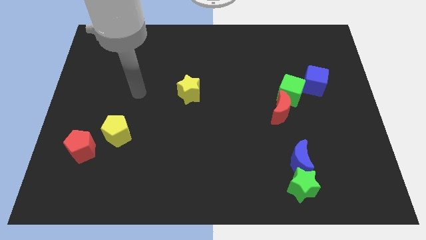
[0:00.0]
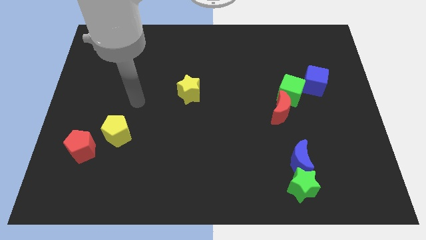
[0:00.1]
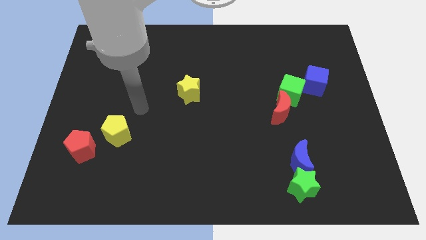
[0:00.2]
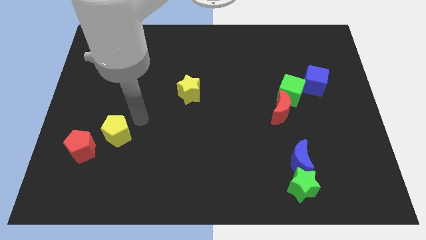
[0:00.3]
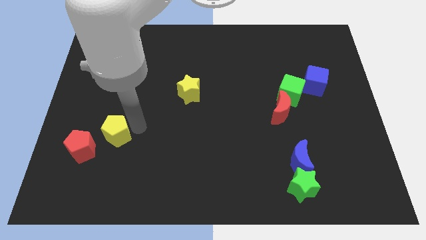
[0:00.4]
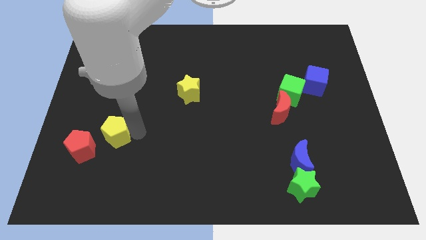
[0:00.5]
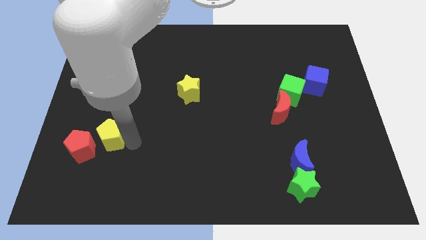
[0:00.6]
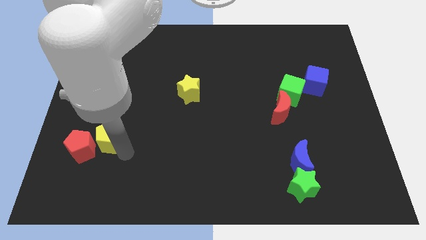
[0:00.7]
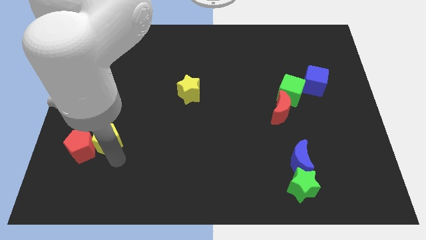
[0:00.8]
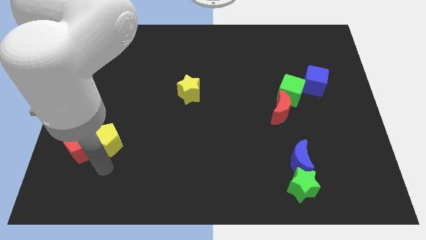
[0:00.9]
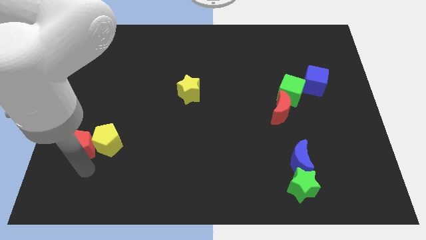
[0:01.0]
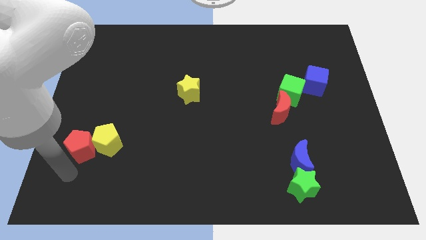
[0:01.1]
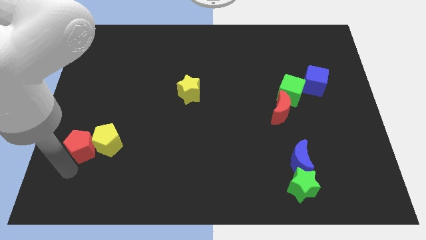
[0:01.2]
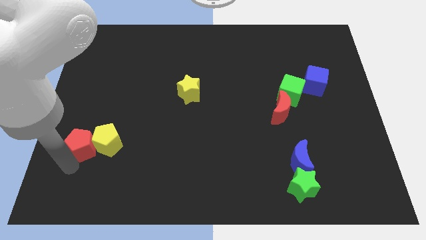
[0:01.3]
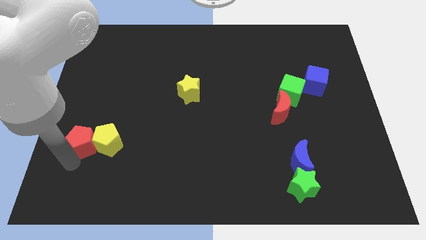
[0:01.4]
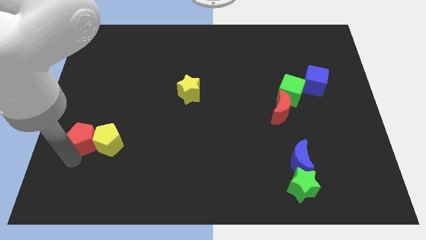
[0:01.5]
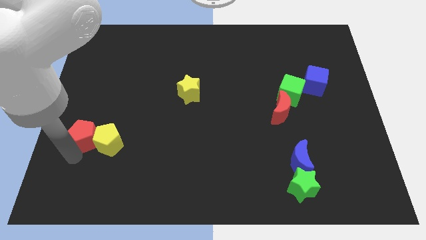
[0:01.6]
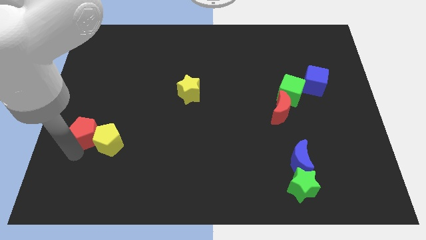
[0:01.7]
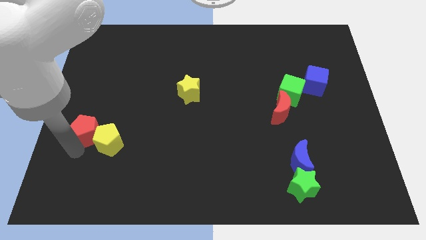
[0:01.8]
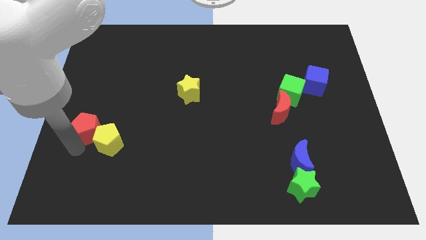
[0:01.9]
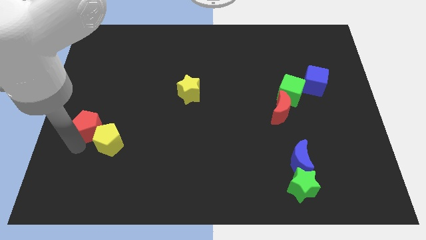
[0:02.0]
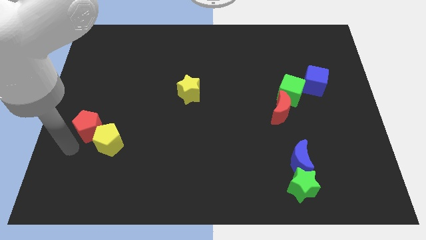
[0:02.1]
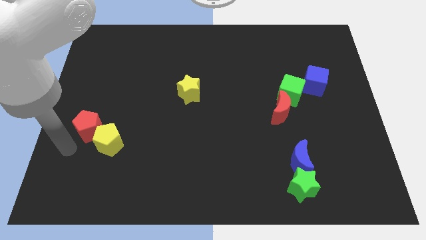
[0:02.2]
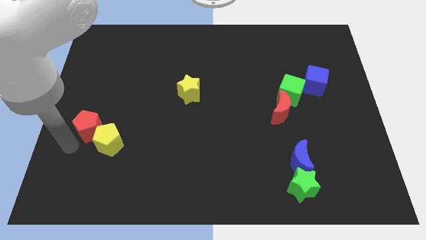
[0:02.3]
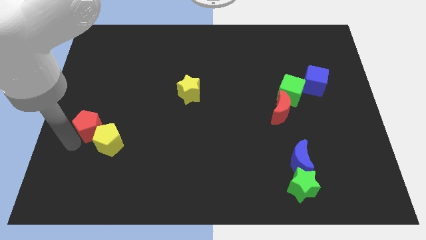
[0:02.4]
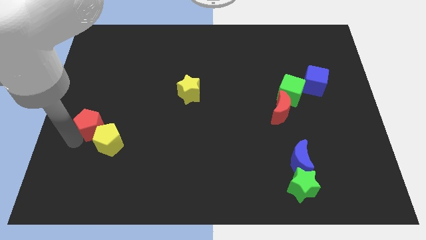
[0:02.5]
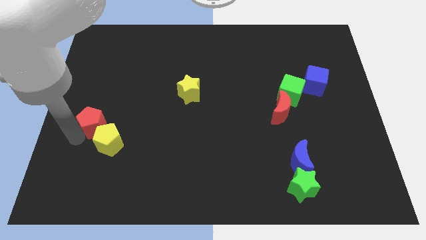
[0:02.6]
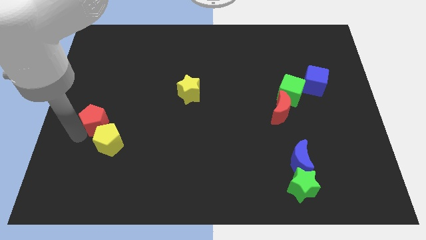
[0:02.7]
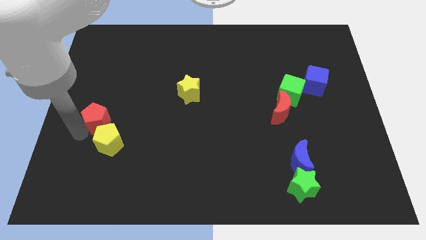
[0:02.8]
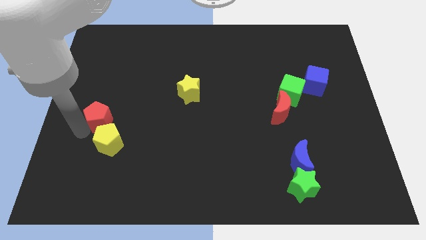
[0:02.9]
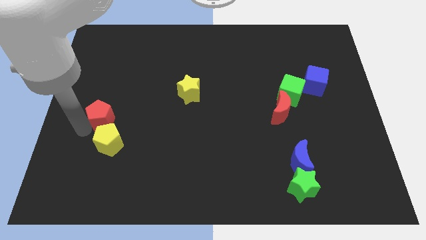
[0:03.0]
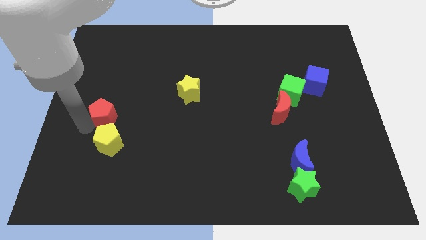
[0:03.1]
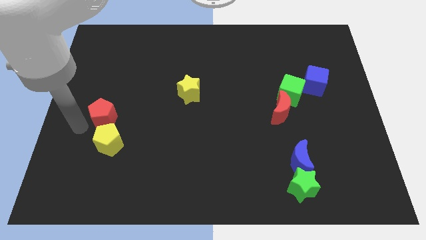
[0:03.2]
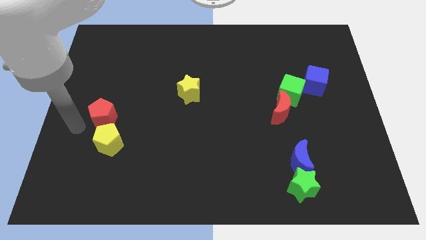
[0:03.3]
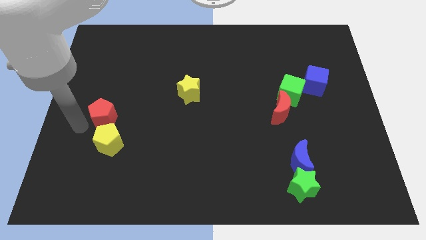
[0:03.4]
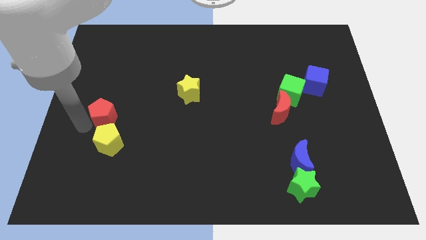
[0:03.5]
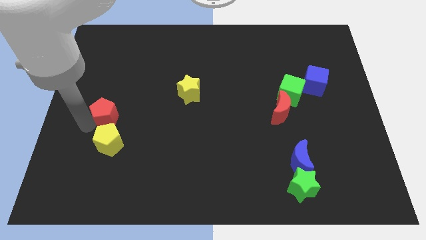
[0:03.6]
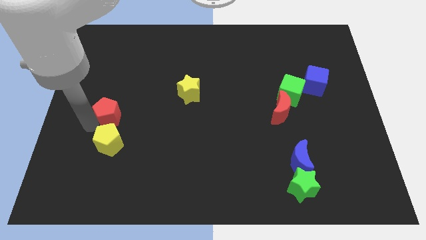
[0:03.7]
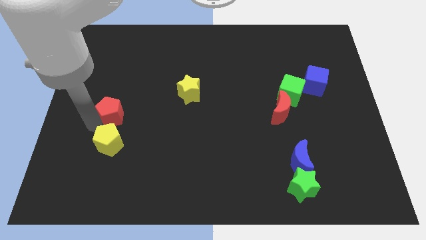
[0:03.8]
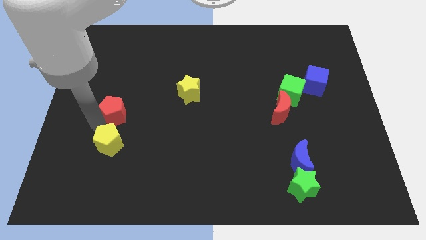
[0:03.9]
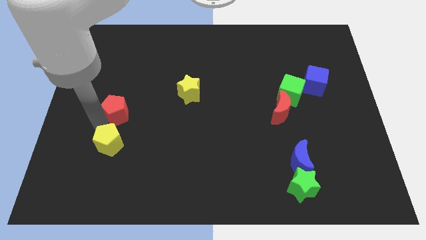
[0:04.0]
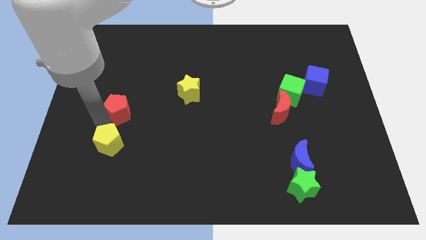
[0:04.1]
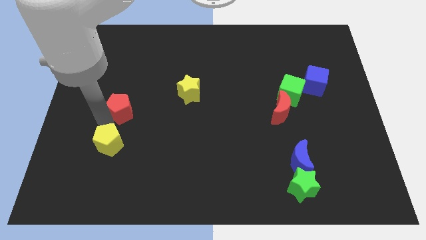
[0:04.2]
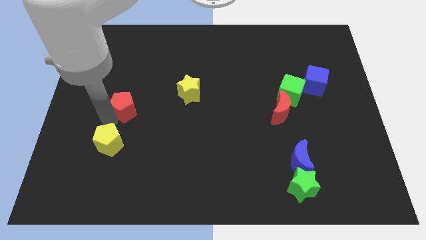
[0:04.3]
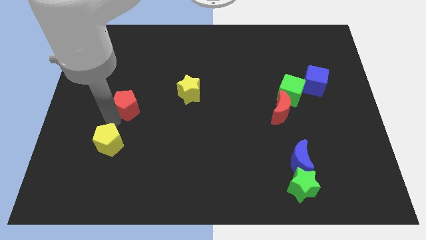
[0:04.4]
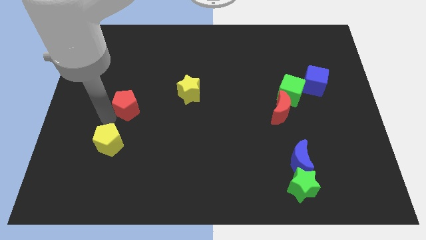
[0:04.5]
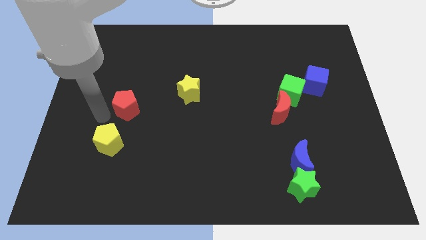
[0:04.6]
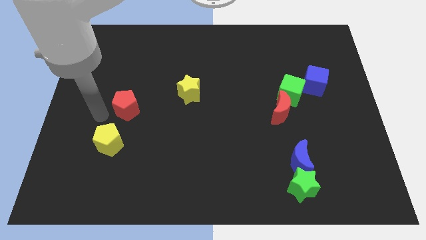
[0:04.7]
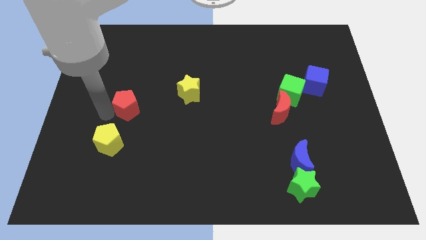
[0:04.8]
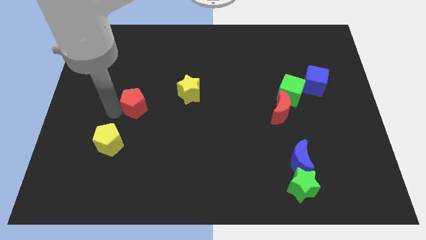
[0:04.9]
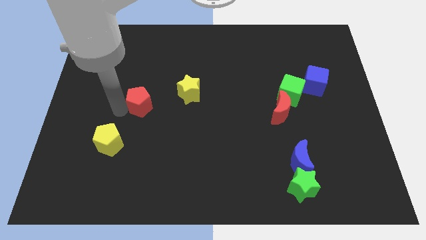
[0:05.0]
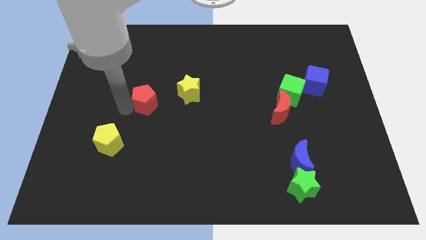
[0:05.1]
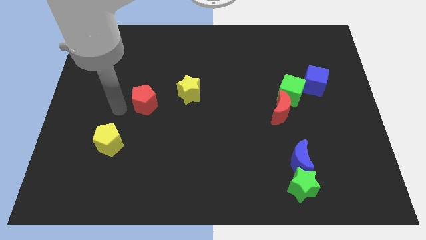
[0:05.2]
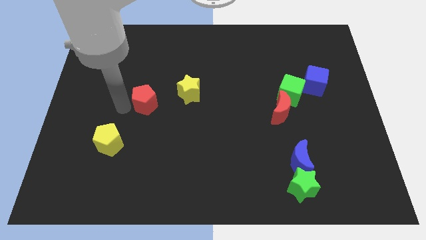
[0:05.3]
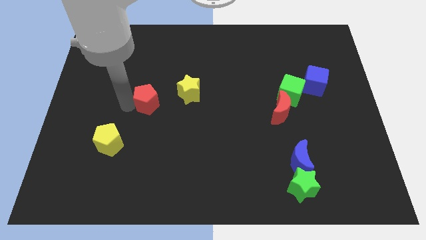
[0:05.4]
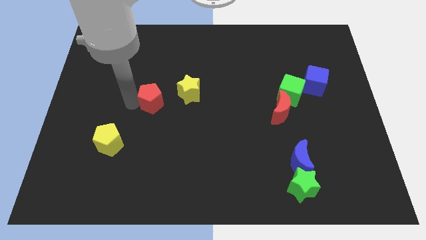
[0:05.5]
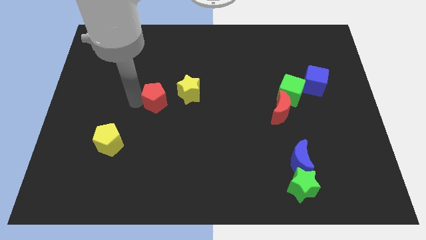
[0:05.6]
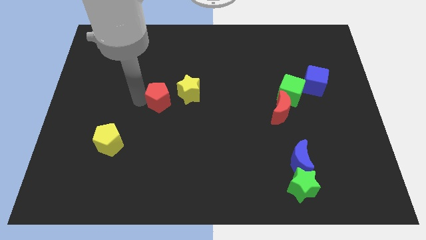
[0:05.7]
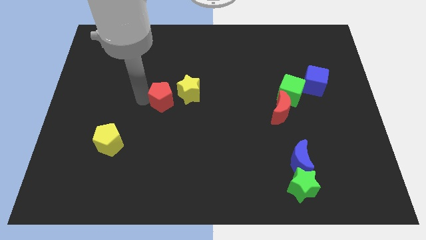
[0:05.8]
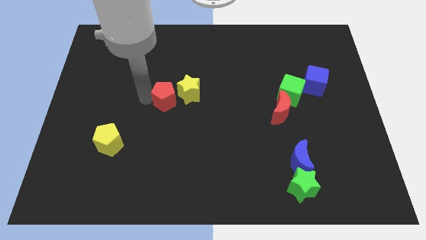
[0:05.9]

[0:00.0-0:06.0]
move the red pentagon towards the yellow star
